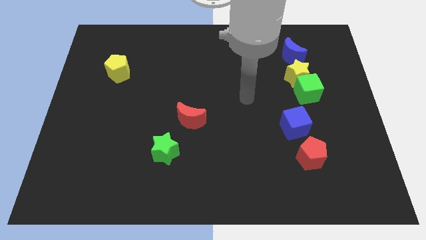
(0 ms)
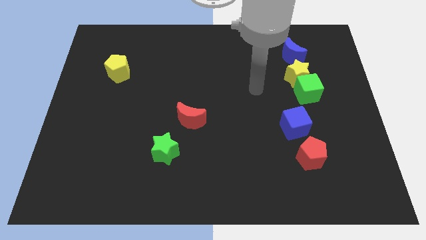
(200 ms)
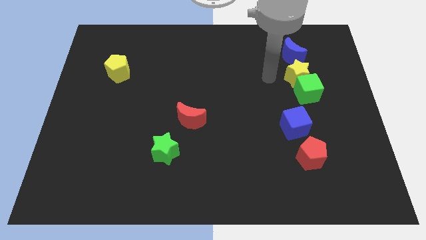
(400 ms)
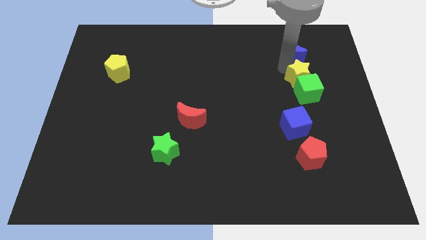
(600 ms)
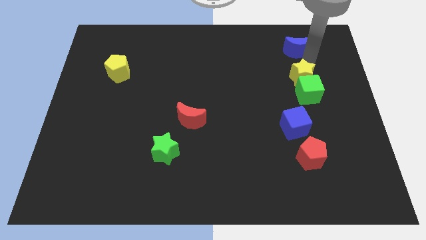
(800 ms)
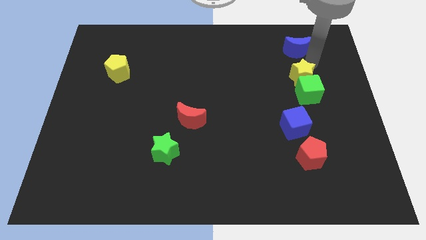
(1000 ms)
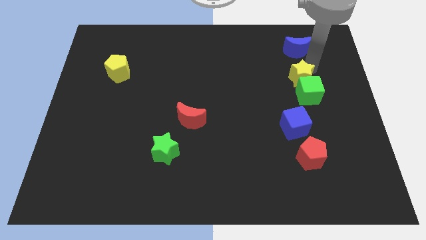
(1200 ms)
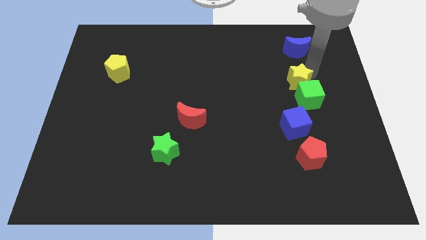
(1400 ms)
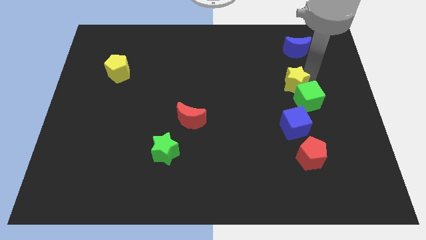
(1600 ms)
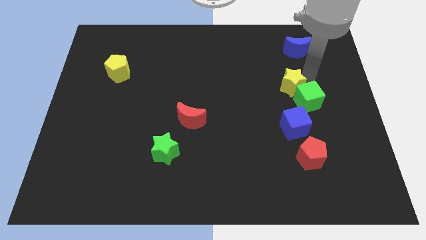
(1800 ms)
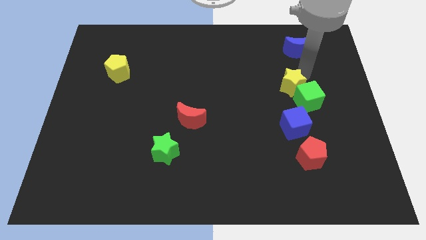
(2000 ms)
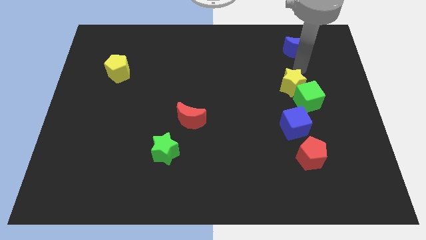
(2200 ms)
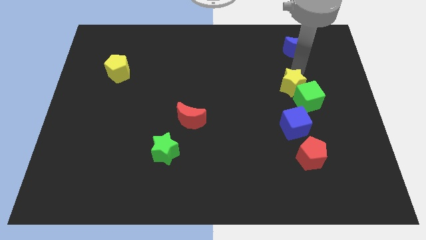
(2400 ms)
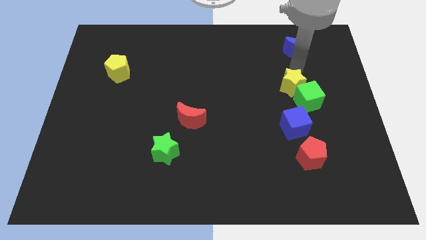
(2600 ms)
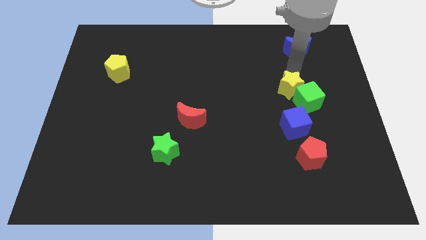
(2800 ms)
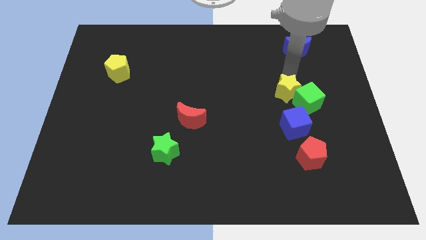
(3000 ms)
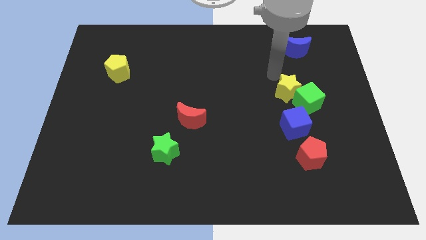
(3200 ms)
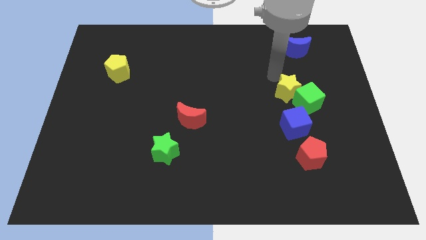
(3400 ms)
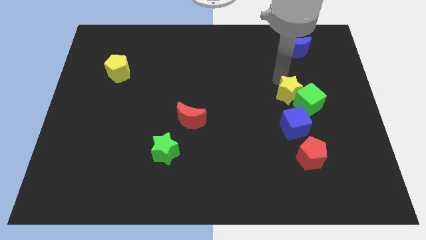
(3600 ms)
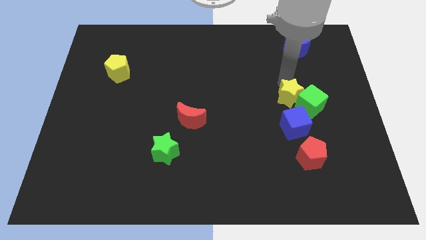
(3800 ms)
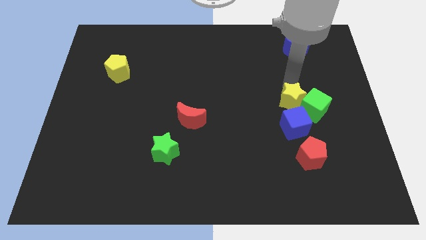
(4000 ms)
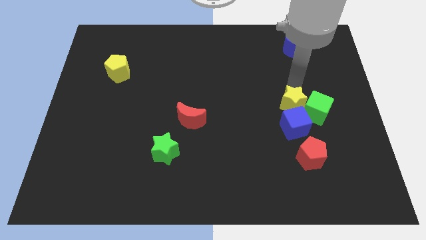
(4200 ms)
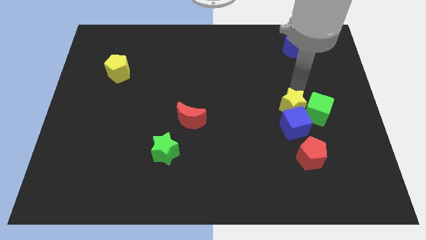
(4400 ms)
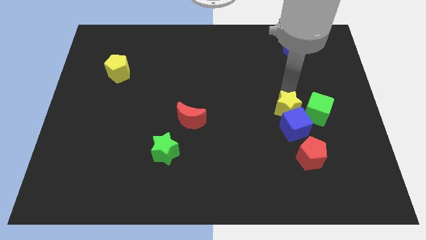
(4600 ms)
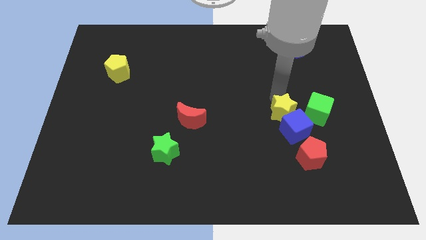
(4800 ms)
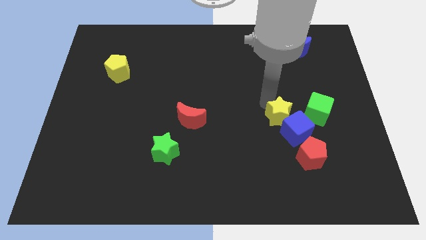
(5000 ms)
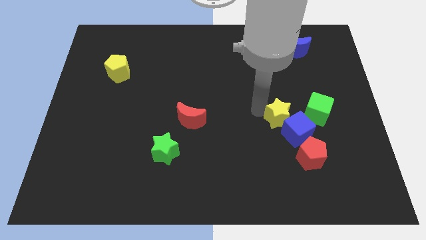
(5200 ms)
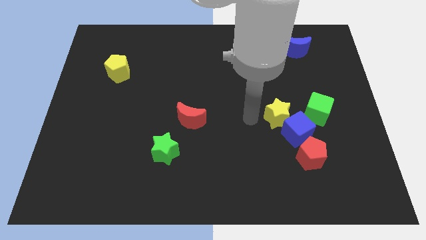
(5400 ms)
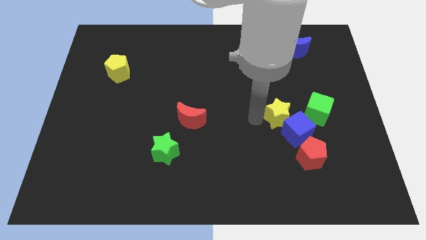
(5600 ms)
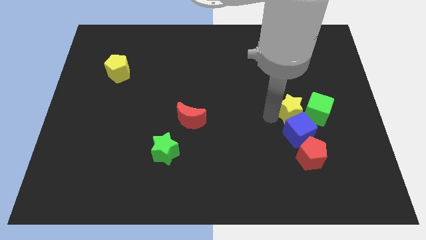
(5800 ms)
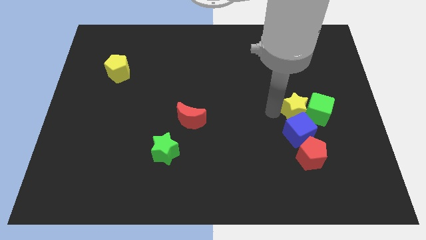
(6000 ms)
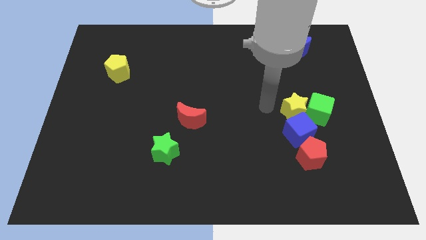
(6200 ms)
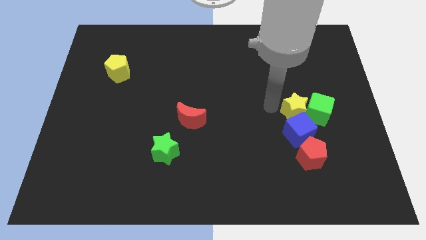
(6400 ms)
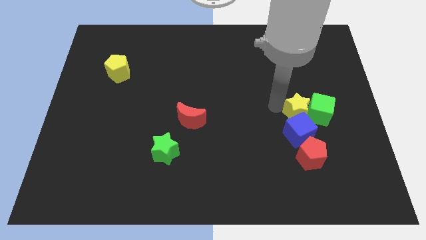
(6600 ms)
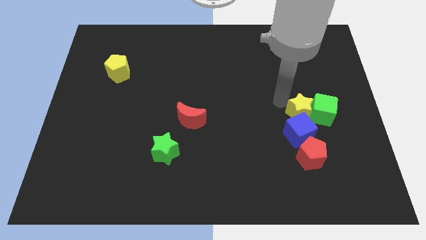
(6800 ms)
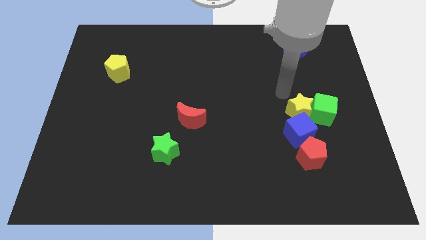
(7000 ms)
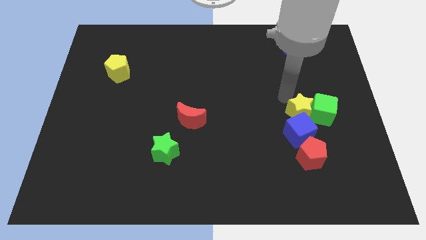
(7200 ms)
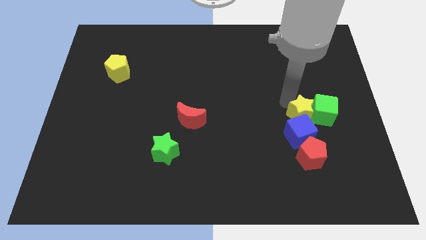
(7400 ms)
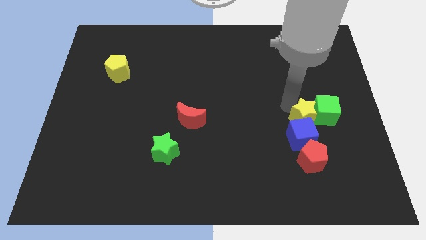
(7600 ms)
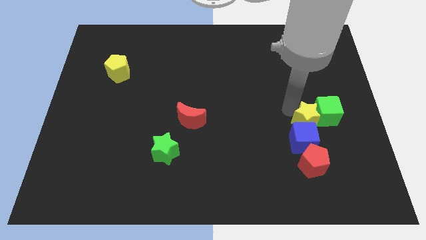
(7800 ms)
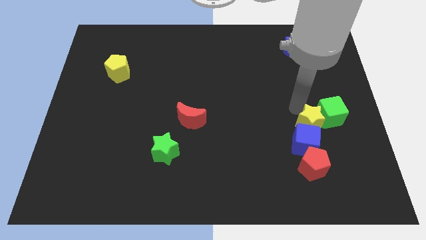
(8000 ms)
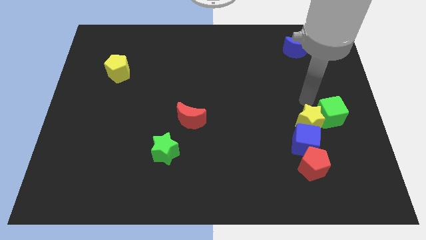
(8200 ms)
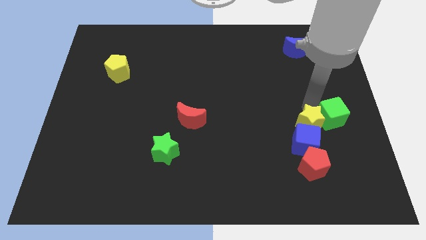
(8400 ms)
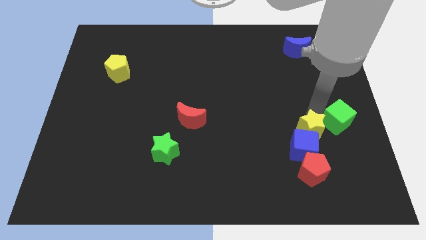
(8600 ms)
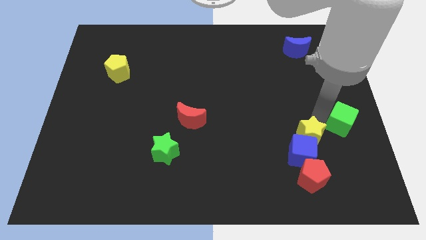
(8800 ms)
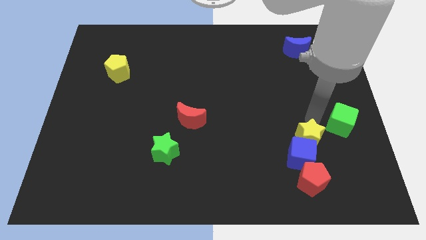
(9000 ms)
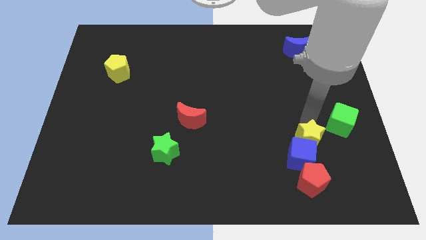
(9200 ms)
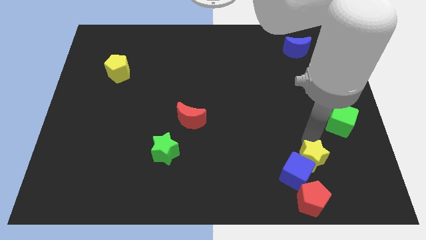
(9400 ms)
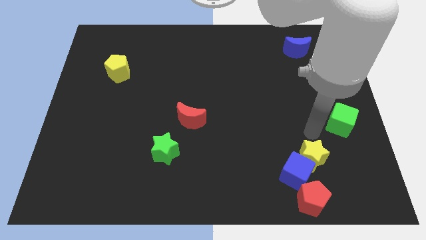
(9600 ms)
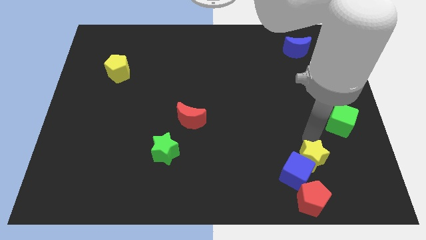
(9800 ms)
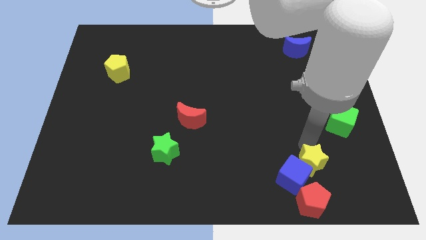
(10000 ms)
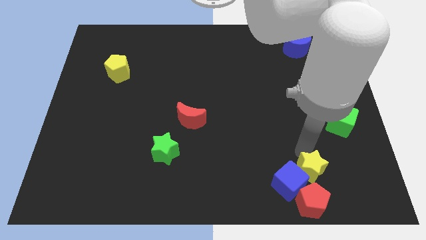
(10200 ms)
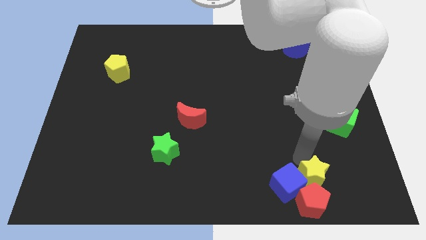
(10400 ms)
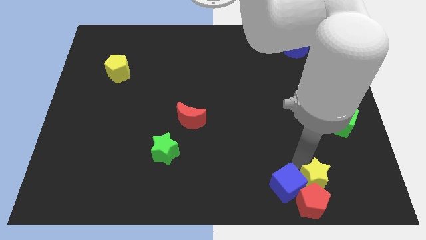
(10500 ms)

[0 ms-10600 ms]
slide the yellow star next to the red pentagon

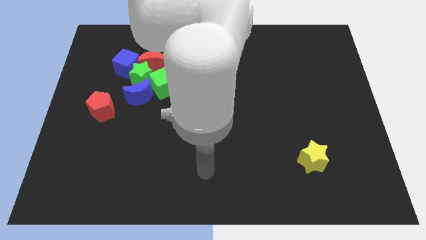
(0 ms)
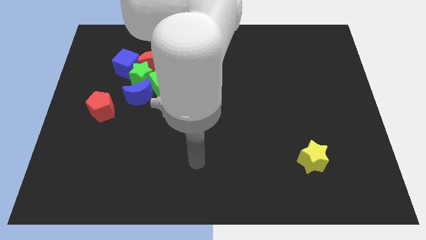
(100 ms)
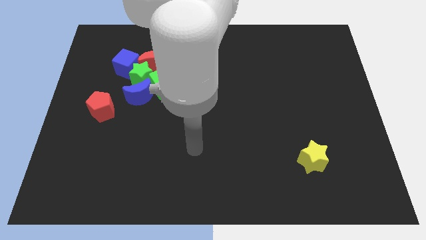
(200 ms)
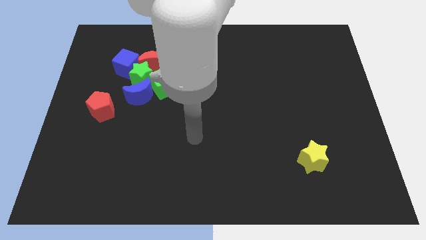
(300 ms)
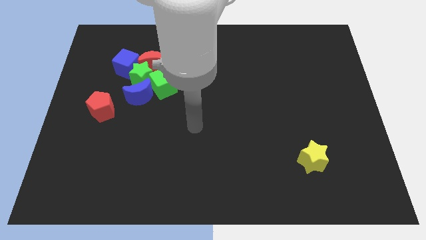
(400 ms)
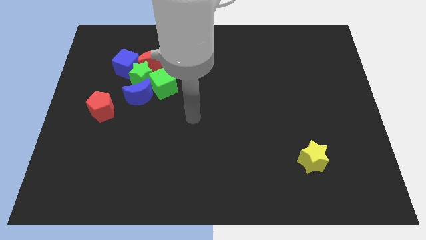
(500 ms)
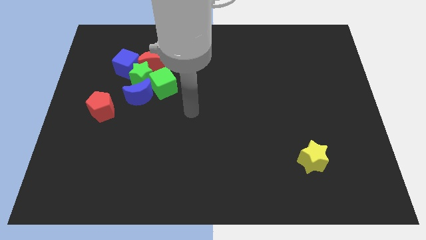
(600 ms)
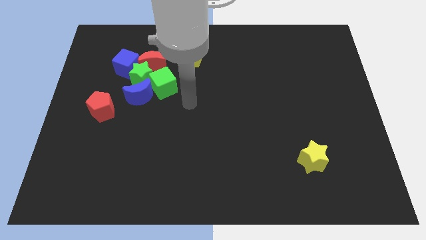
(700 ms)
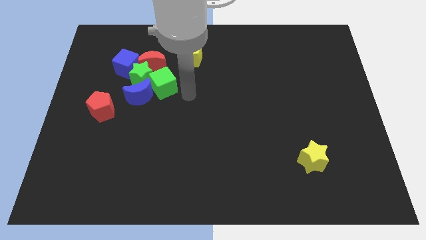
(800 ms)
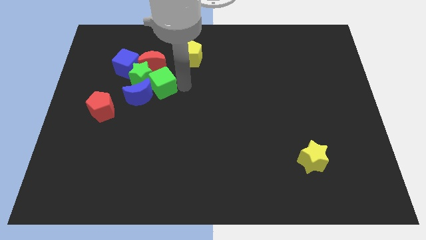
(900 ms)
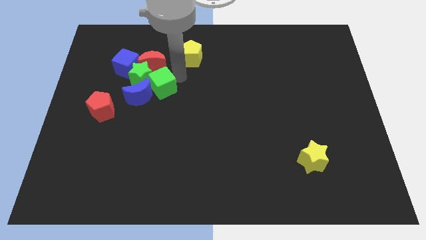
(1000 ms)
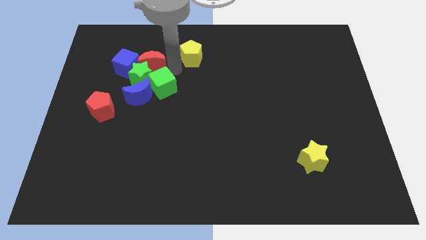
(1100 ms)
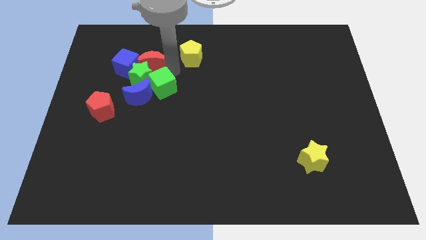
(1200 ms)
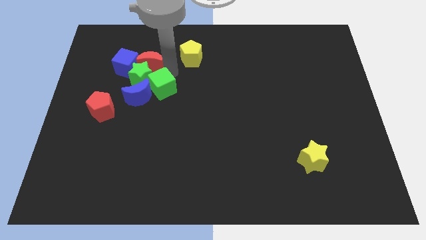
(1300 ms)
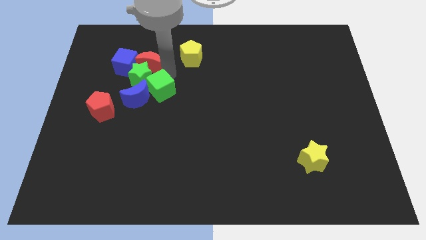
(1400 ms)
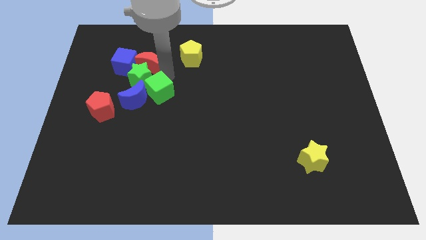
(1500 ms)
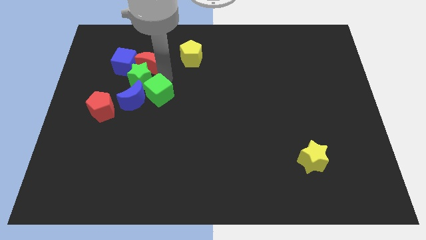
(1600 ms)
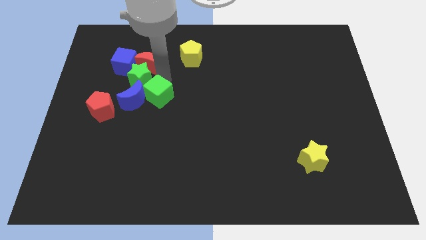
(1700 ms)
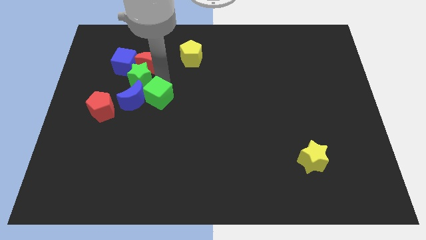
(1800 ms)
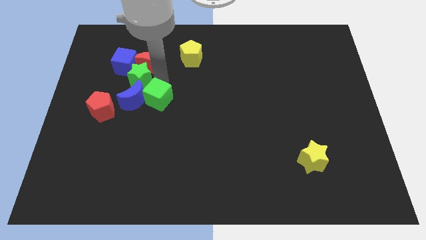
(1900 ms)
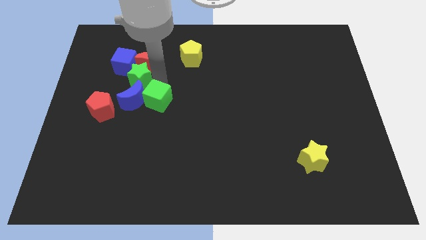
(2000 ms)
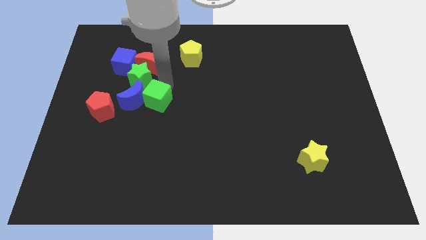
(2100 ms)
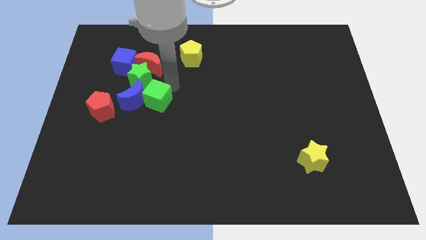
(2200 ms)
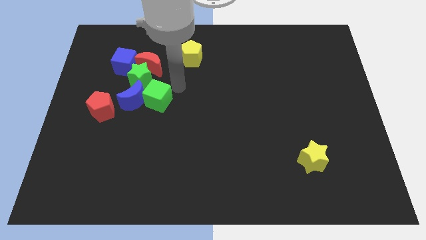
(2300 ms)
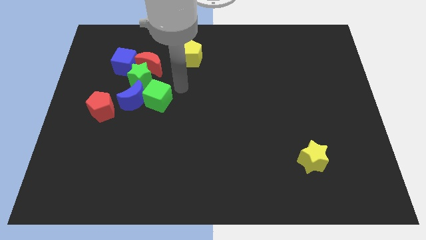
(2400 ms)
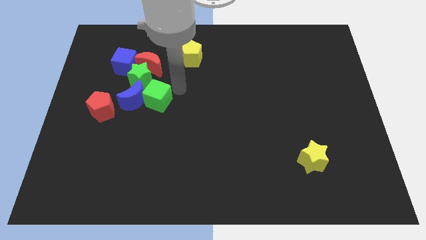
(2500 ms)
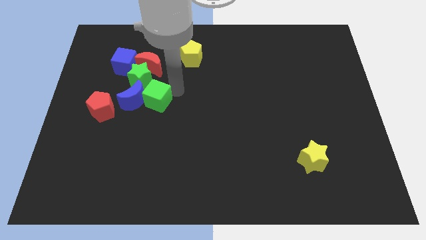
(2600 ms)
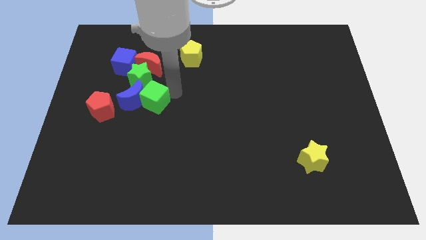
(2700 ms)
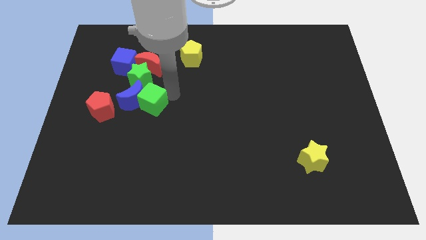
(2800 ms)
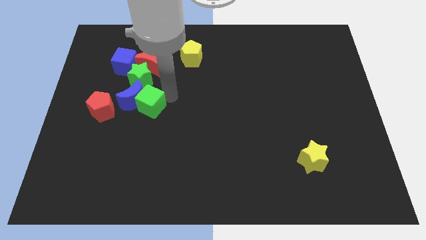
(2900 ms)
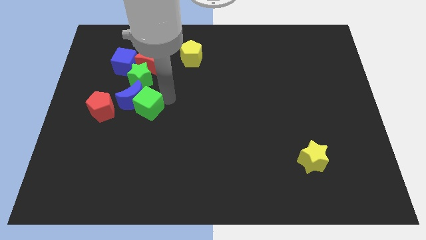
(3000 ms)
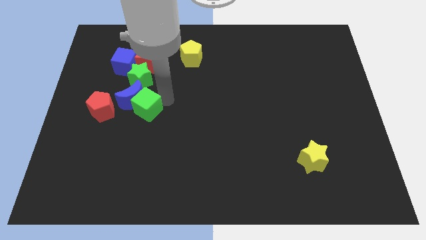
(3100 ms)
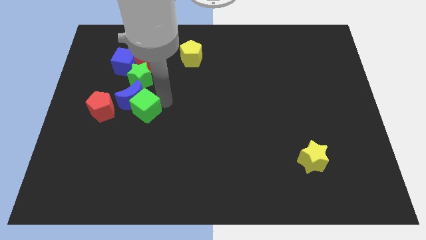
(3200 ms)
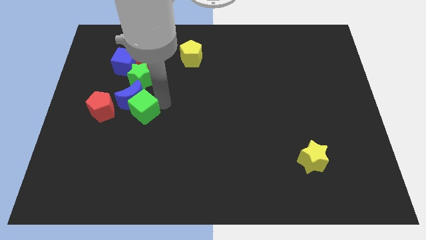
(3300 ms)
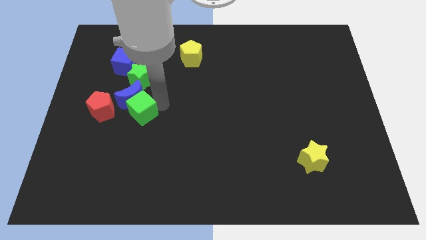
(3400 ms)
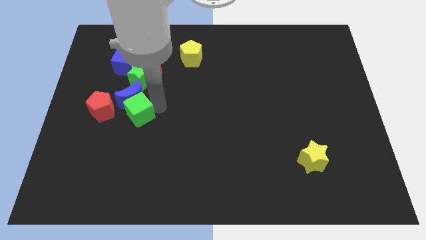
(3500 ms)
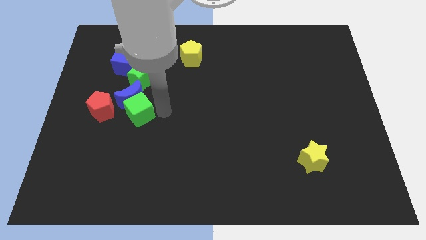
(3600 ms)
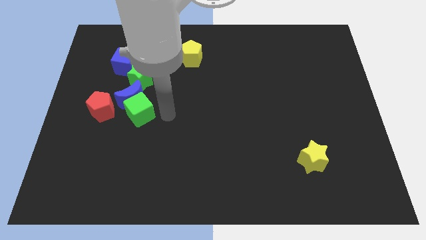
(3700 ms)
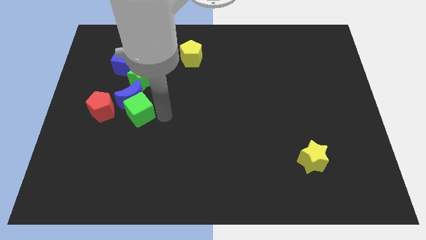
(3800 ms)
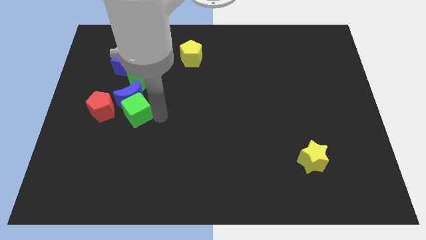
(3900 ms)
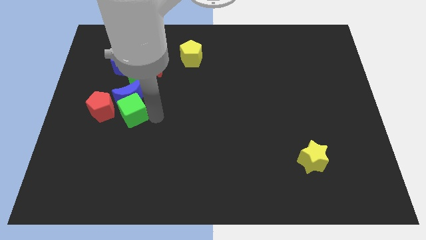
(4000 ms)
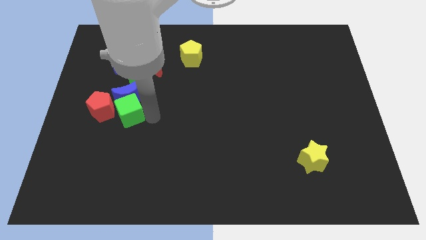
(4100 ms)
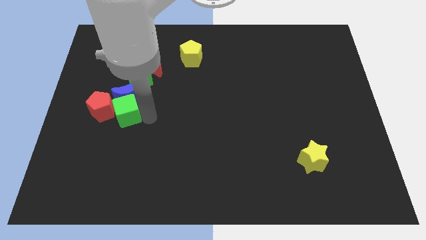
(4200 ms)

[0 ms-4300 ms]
push the green cube towards the red pentagon
